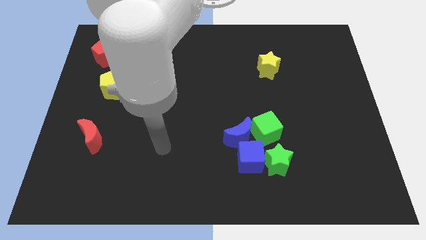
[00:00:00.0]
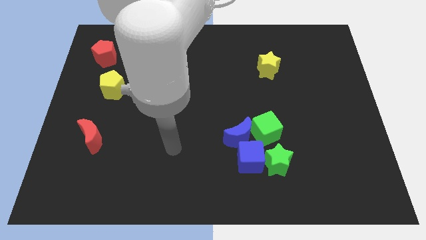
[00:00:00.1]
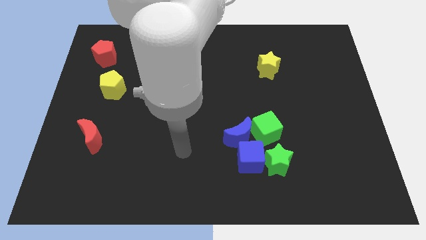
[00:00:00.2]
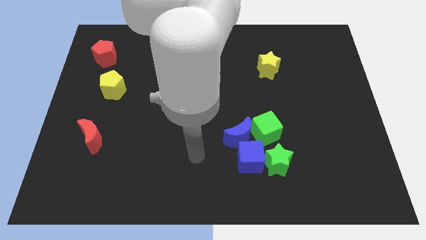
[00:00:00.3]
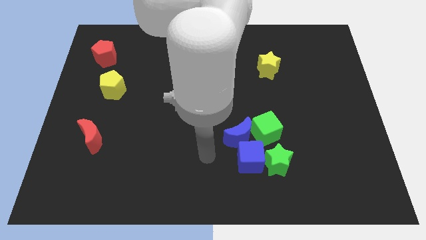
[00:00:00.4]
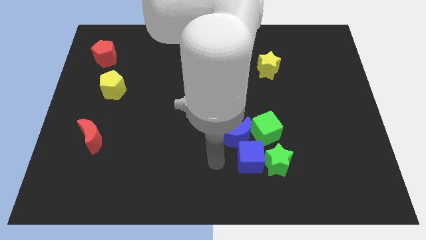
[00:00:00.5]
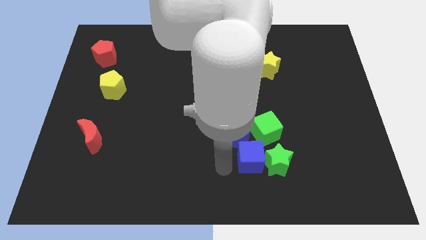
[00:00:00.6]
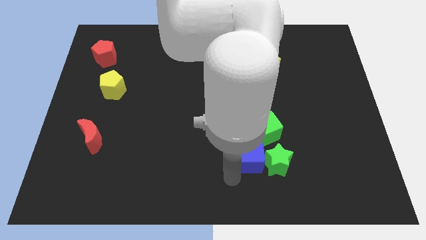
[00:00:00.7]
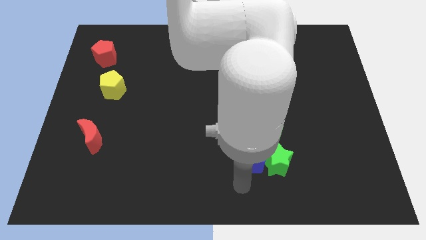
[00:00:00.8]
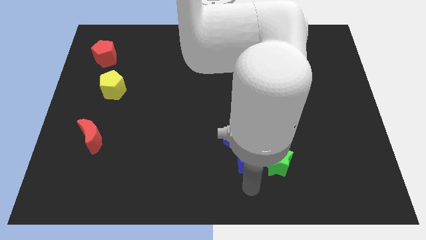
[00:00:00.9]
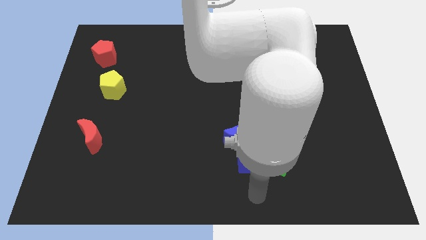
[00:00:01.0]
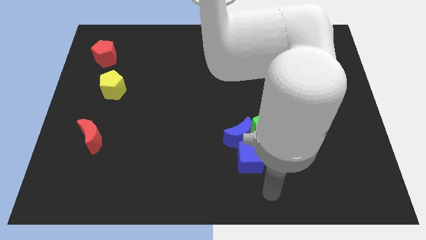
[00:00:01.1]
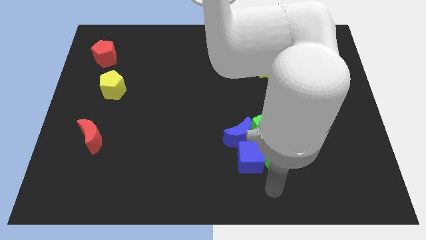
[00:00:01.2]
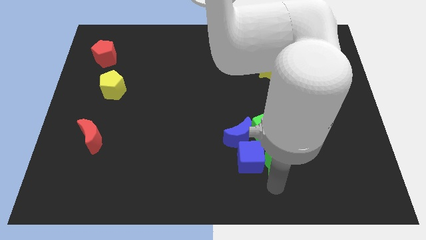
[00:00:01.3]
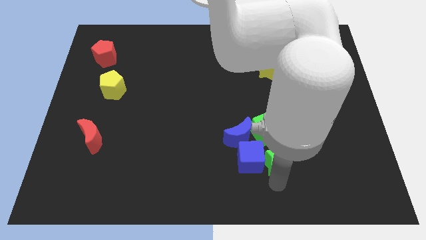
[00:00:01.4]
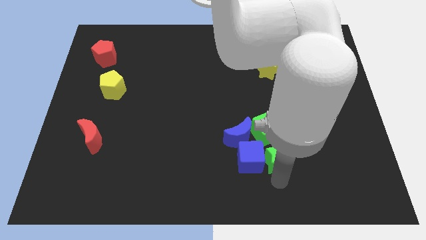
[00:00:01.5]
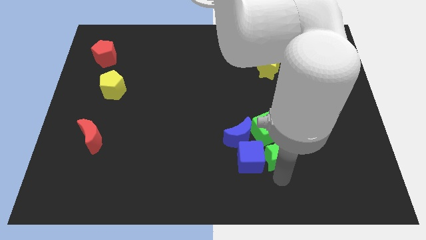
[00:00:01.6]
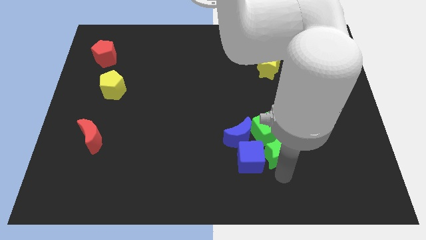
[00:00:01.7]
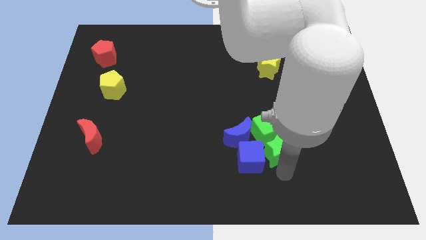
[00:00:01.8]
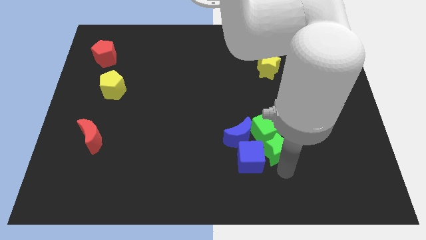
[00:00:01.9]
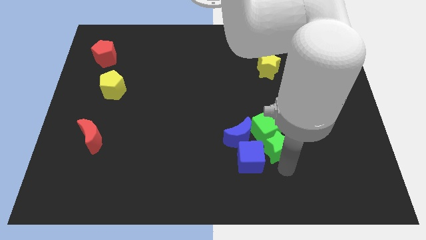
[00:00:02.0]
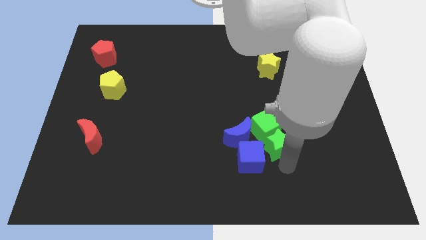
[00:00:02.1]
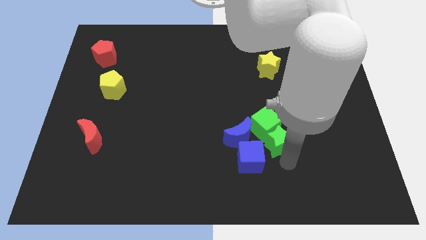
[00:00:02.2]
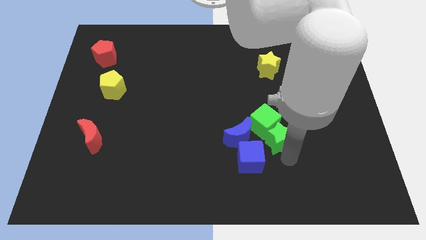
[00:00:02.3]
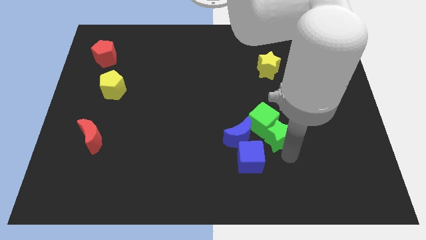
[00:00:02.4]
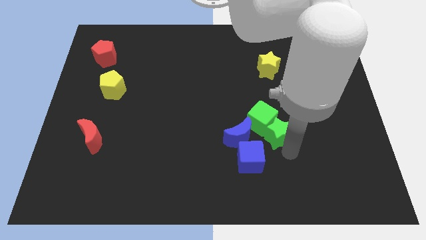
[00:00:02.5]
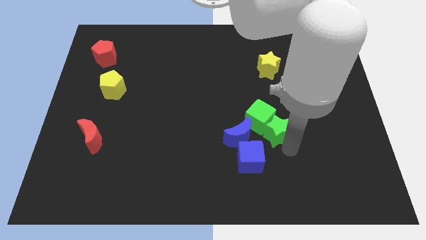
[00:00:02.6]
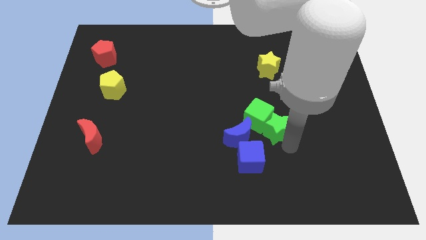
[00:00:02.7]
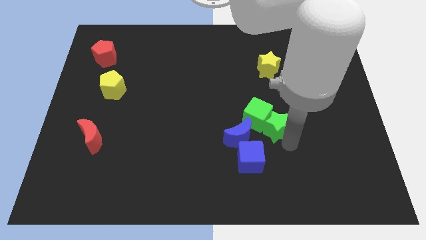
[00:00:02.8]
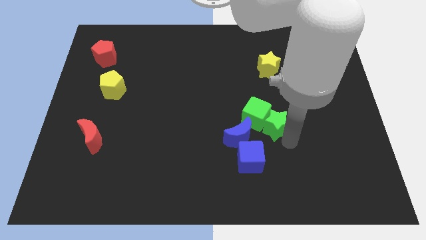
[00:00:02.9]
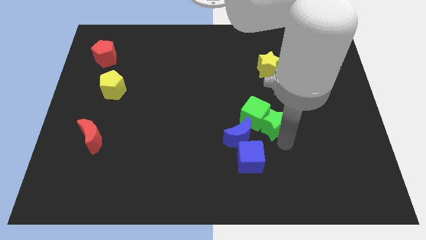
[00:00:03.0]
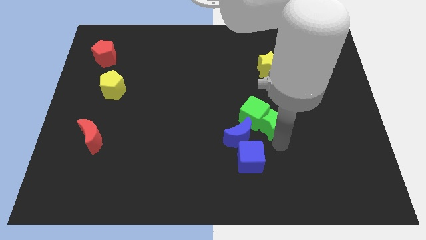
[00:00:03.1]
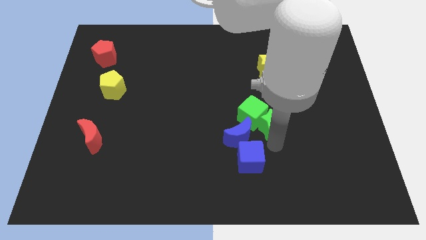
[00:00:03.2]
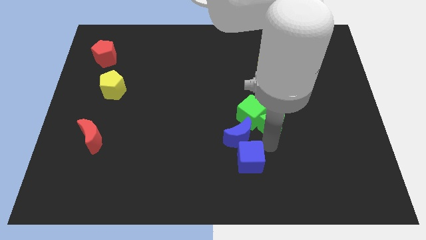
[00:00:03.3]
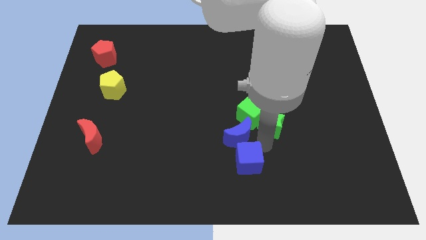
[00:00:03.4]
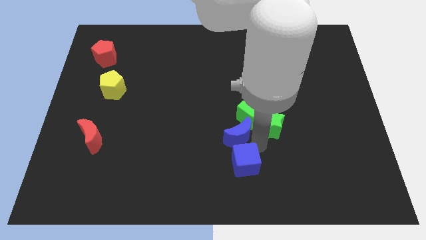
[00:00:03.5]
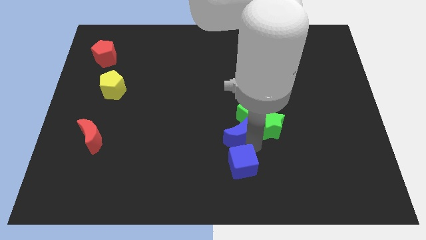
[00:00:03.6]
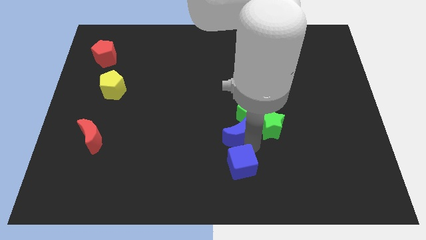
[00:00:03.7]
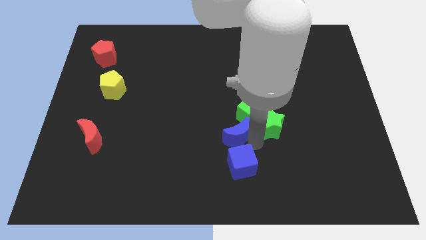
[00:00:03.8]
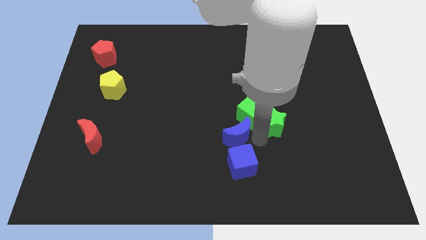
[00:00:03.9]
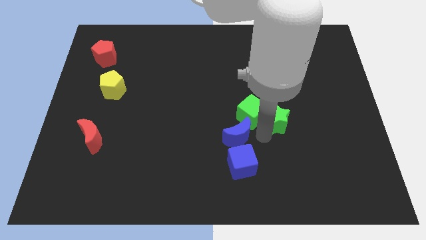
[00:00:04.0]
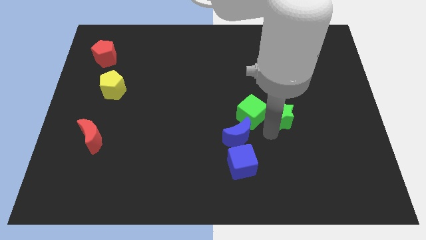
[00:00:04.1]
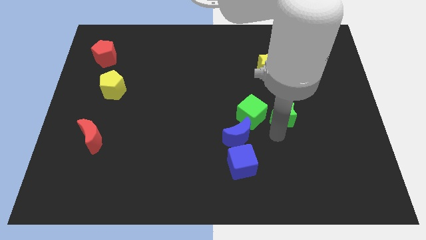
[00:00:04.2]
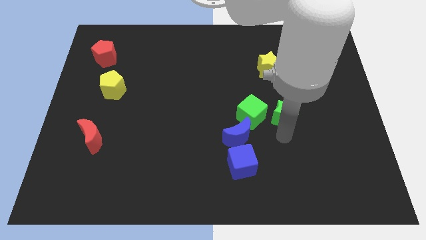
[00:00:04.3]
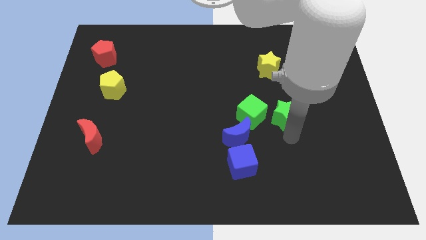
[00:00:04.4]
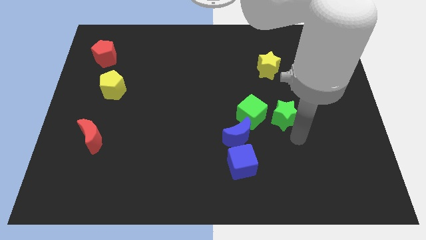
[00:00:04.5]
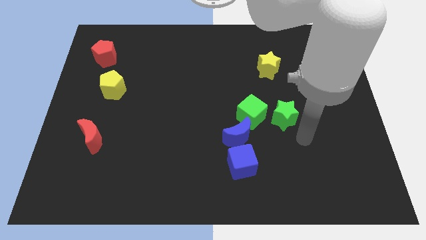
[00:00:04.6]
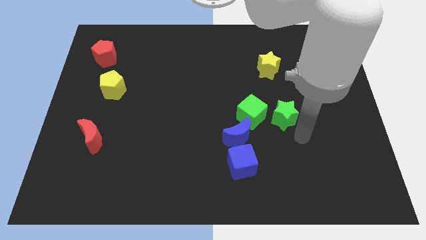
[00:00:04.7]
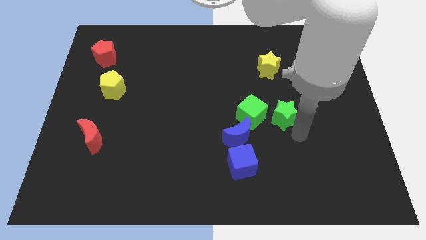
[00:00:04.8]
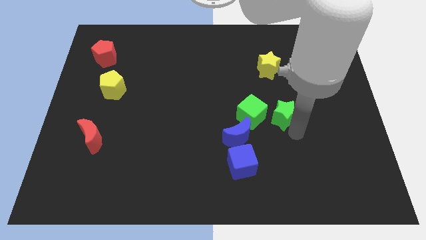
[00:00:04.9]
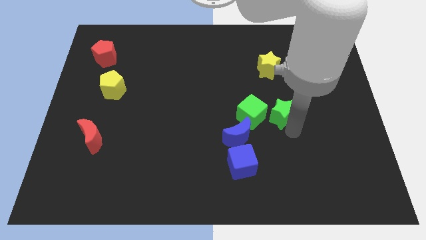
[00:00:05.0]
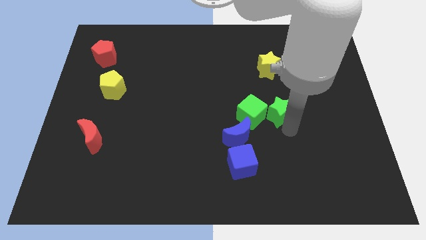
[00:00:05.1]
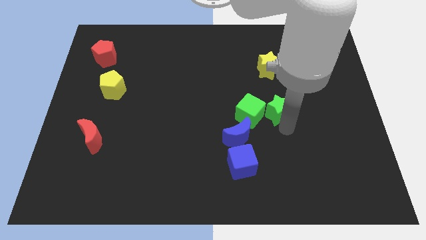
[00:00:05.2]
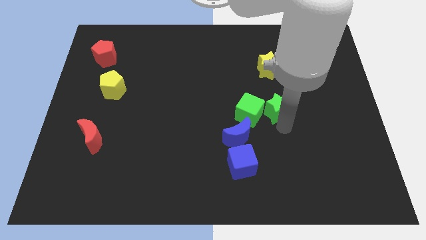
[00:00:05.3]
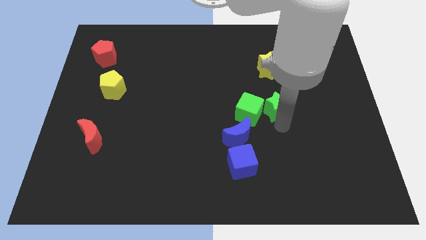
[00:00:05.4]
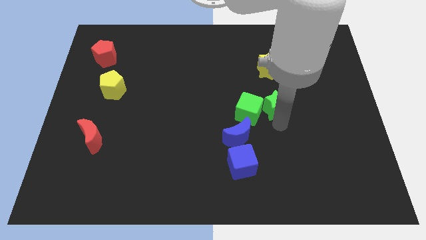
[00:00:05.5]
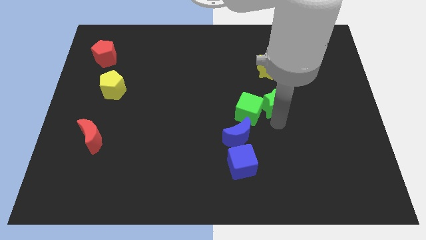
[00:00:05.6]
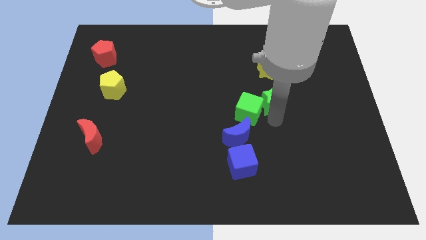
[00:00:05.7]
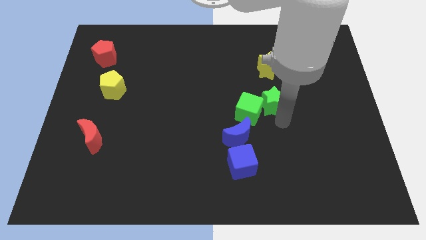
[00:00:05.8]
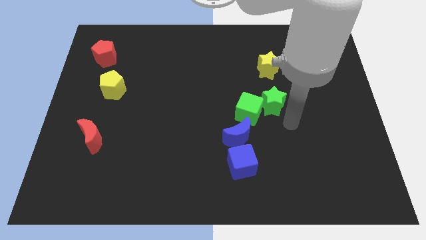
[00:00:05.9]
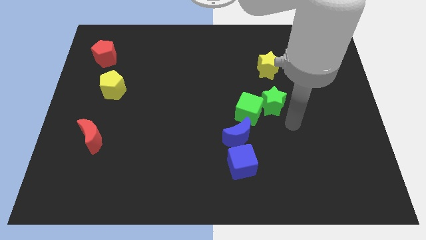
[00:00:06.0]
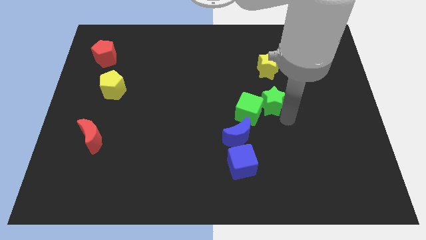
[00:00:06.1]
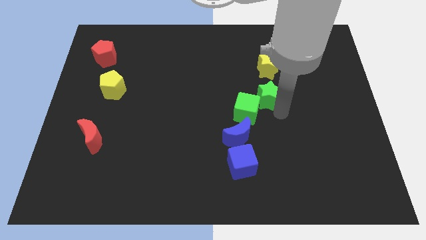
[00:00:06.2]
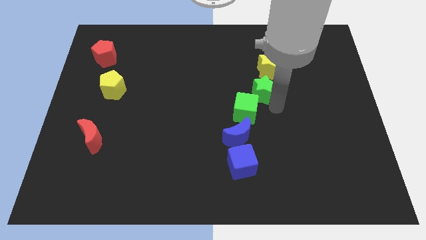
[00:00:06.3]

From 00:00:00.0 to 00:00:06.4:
slide the green star diagonally down and to the left of the yellow star

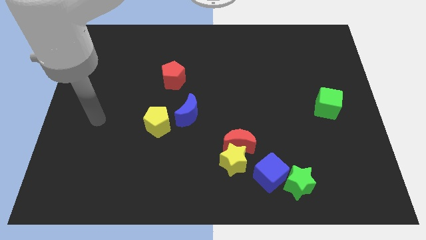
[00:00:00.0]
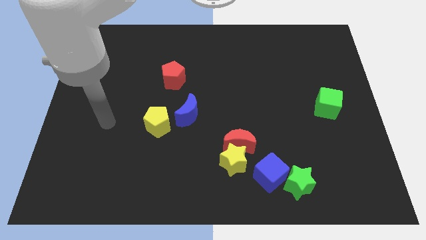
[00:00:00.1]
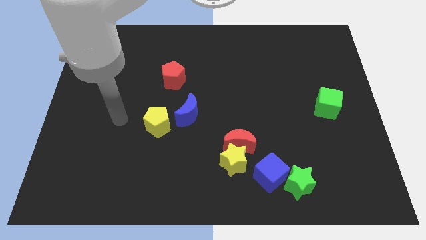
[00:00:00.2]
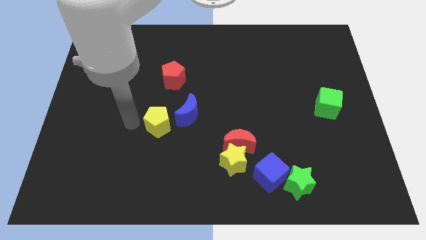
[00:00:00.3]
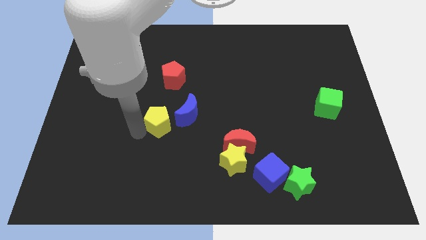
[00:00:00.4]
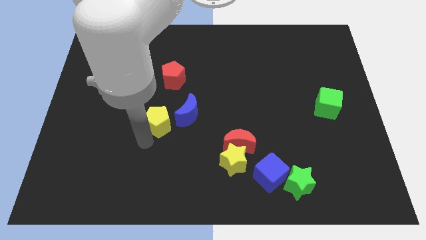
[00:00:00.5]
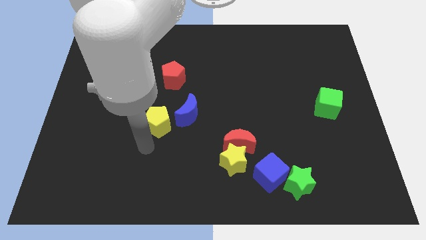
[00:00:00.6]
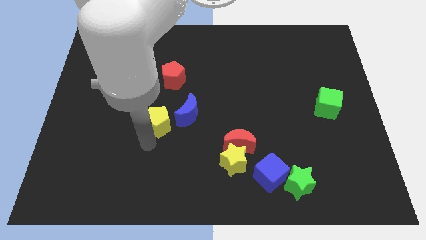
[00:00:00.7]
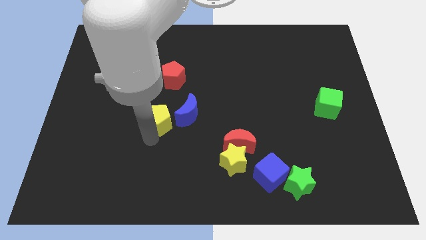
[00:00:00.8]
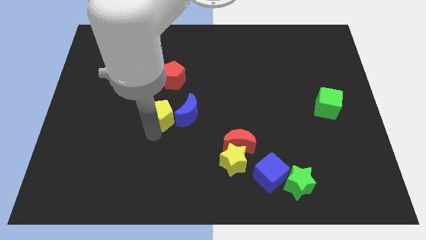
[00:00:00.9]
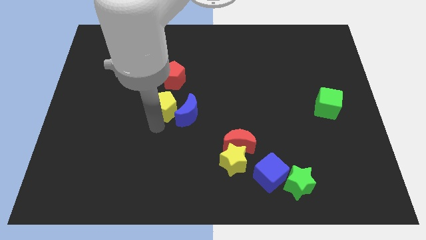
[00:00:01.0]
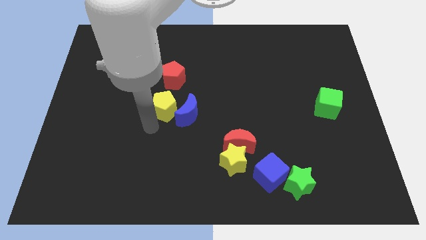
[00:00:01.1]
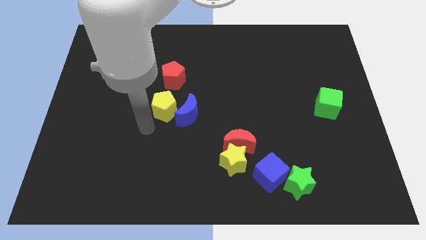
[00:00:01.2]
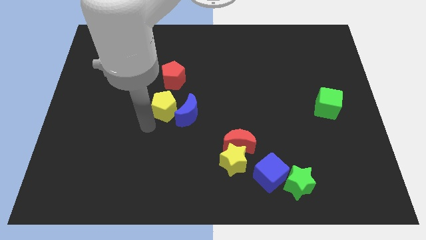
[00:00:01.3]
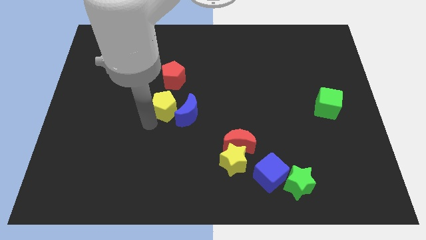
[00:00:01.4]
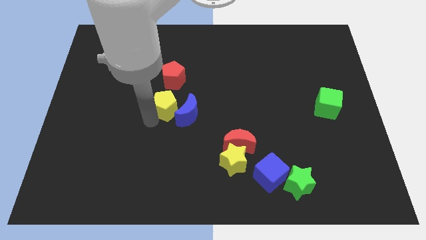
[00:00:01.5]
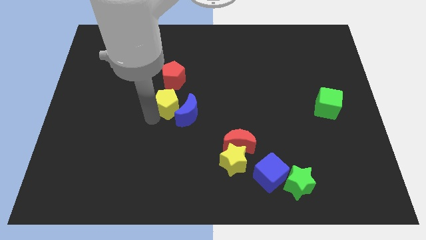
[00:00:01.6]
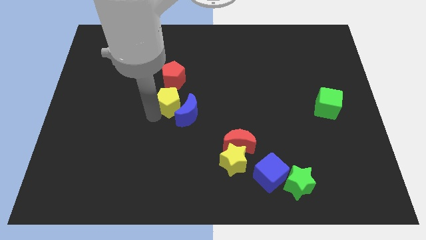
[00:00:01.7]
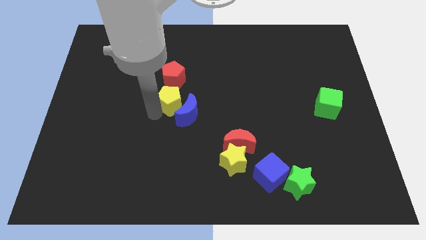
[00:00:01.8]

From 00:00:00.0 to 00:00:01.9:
put the yellow pentagon to the top side of the blue moon
